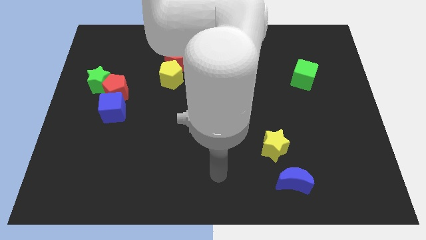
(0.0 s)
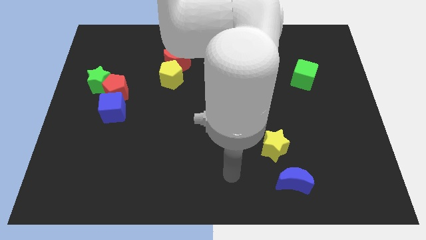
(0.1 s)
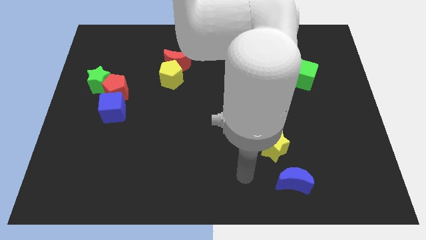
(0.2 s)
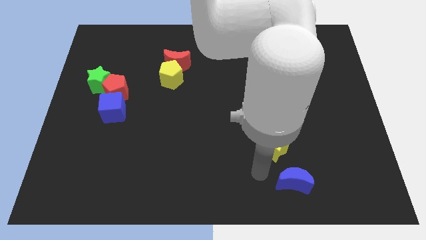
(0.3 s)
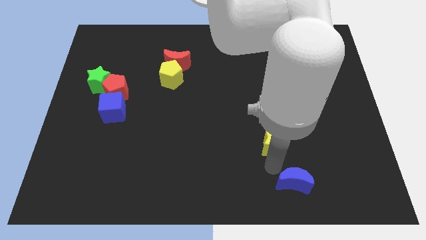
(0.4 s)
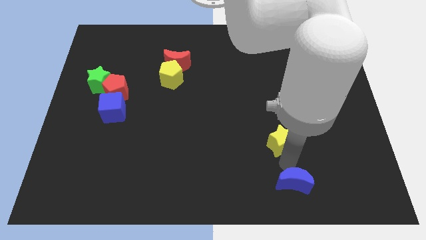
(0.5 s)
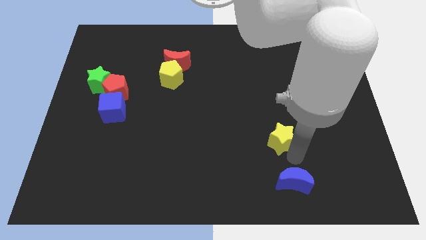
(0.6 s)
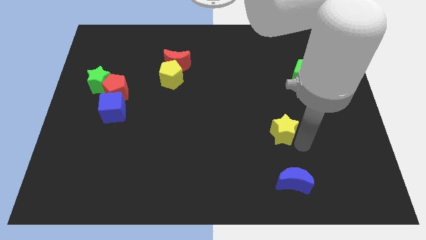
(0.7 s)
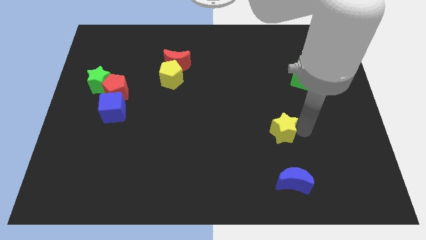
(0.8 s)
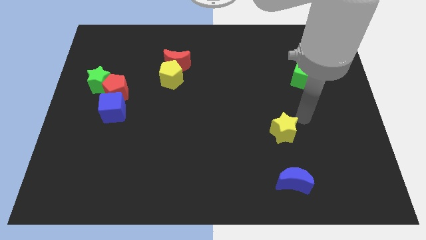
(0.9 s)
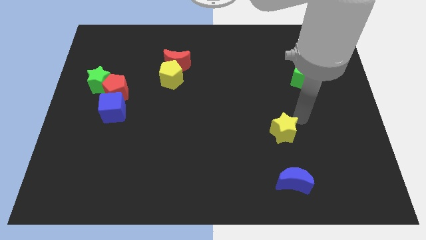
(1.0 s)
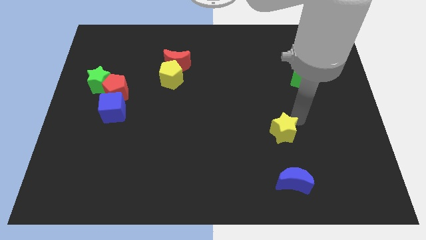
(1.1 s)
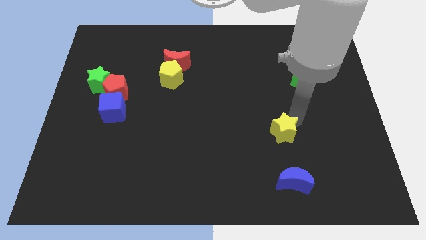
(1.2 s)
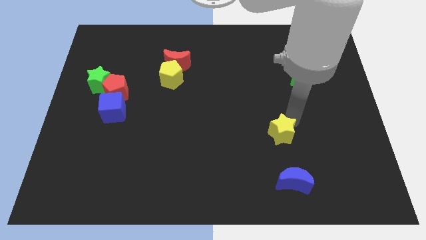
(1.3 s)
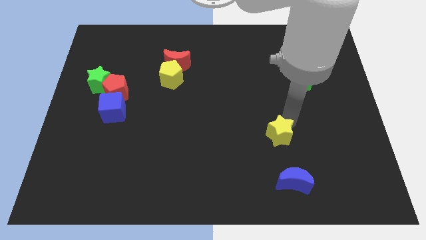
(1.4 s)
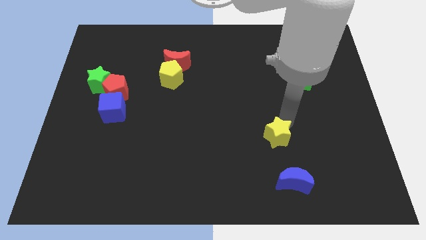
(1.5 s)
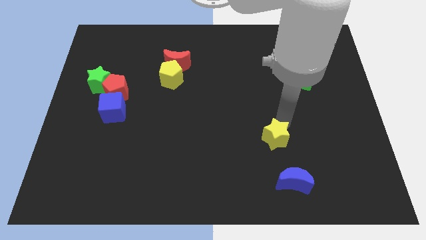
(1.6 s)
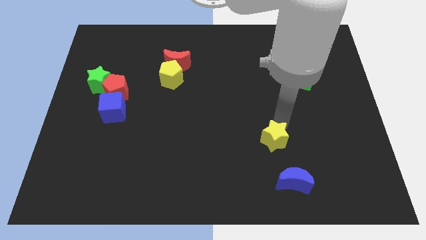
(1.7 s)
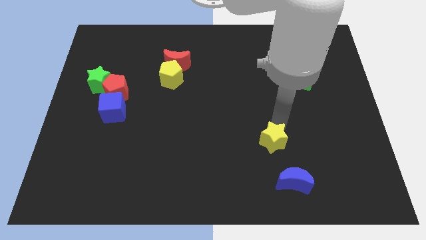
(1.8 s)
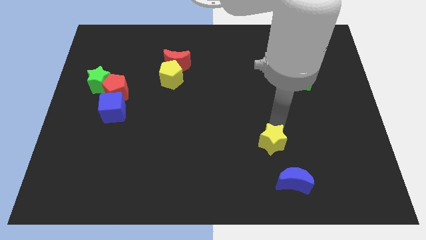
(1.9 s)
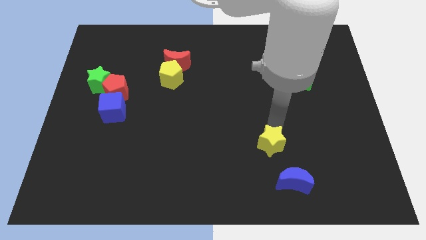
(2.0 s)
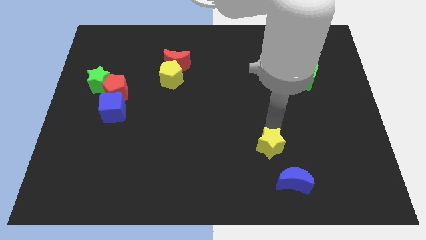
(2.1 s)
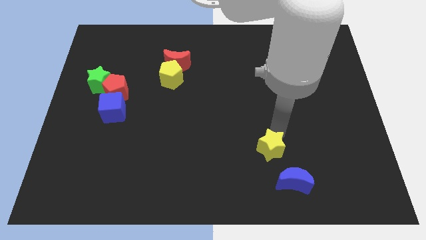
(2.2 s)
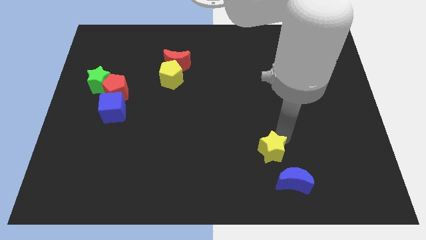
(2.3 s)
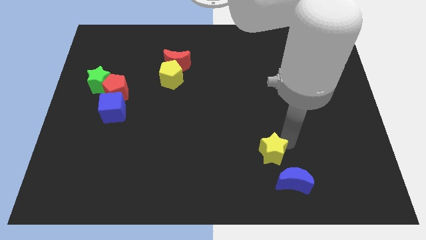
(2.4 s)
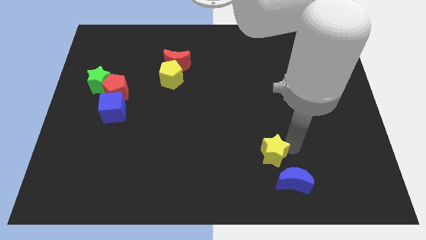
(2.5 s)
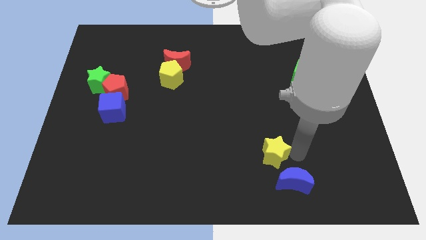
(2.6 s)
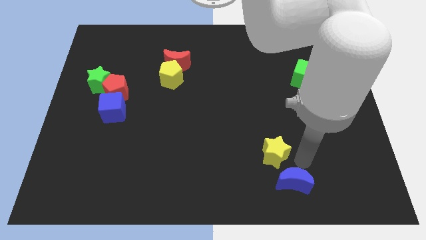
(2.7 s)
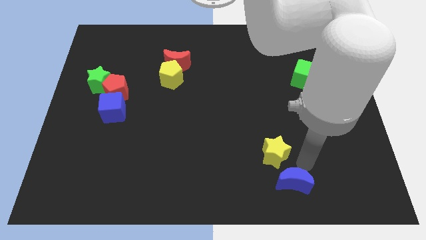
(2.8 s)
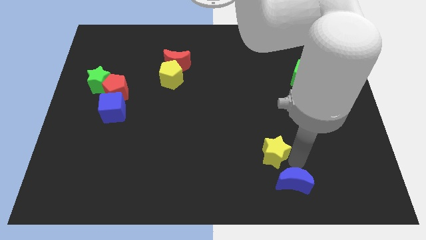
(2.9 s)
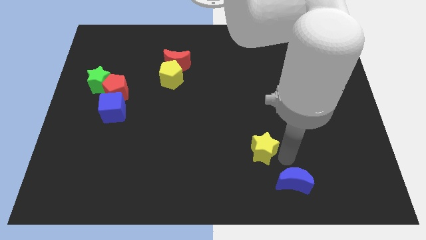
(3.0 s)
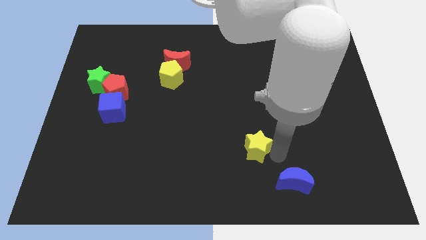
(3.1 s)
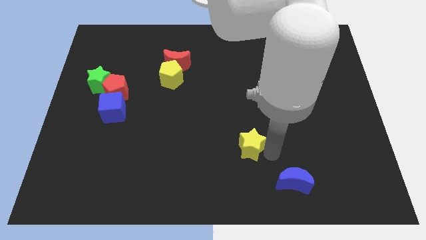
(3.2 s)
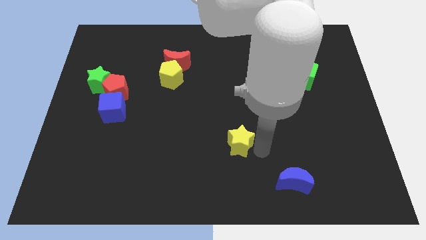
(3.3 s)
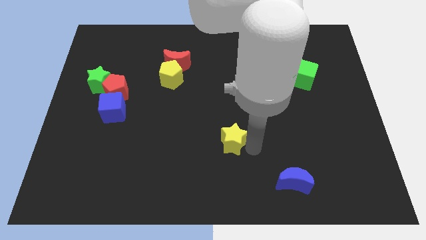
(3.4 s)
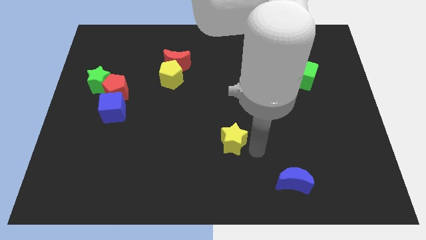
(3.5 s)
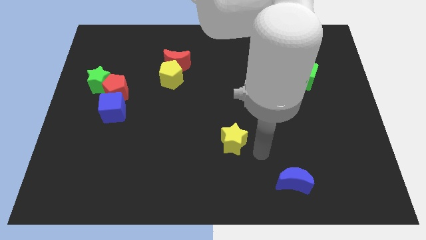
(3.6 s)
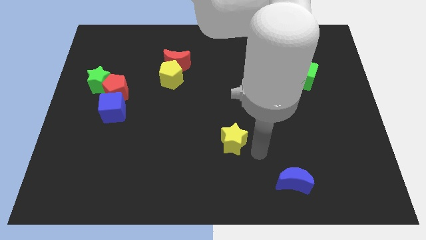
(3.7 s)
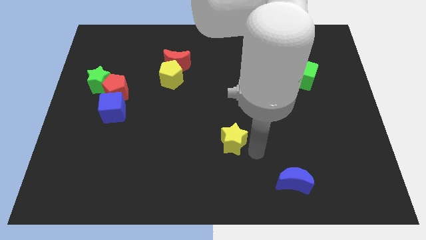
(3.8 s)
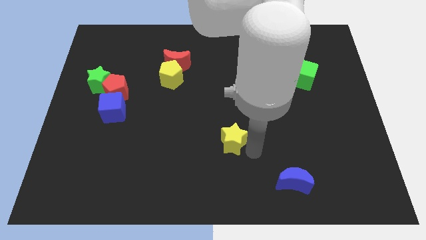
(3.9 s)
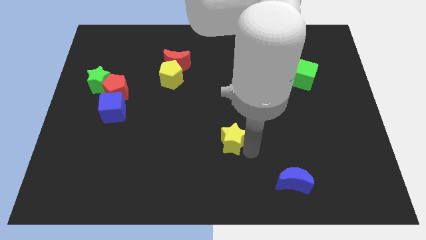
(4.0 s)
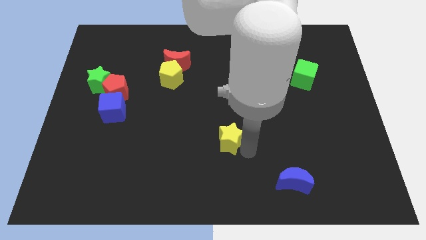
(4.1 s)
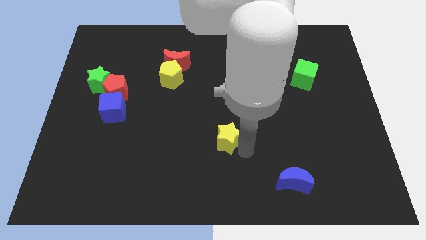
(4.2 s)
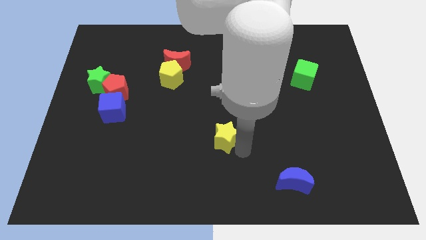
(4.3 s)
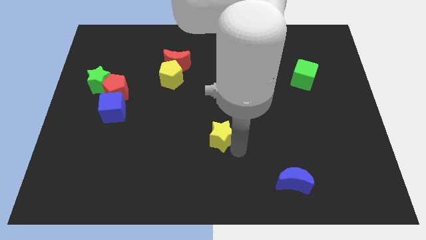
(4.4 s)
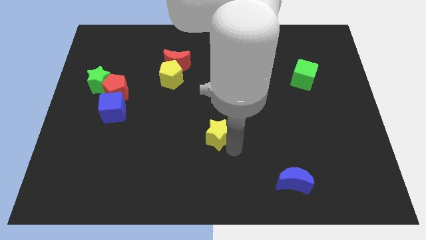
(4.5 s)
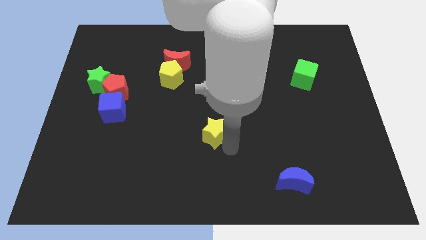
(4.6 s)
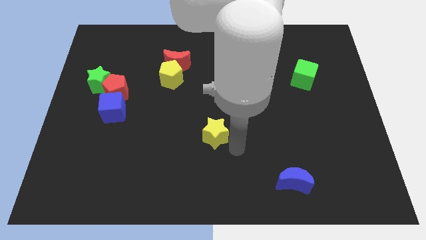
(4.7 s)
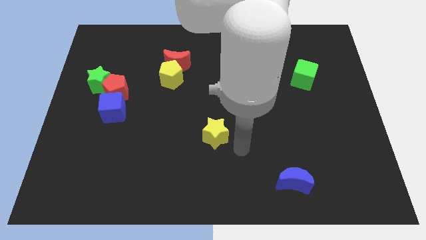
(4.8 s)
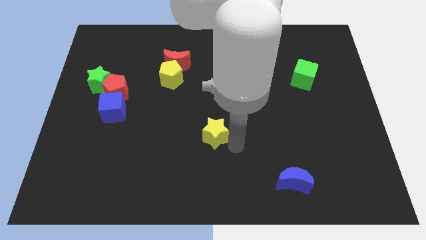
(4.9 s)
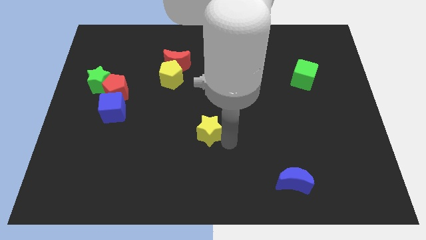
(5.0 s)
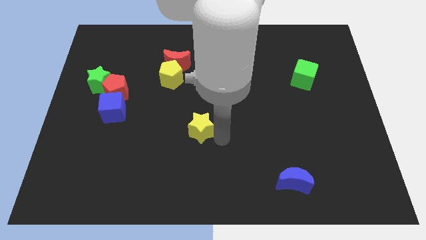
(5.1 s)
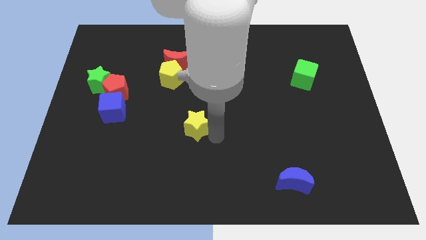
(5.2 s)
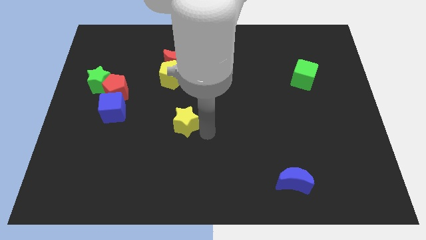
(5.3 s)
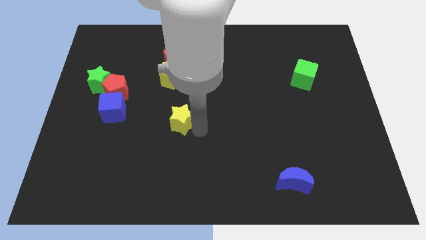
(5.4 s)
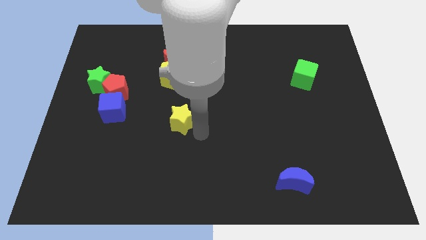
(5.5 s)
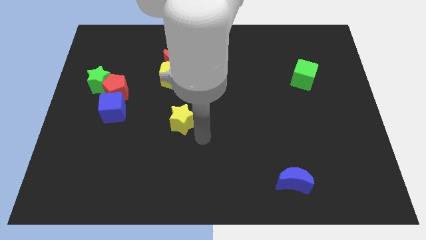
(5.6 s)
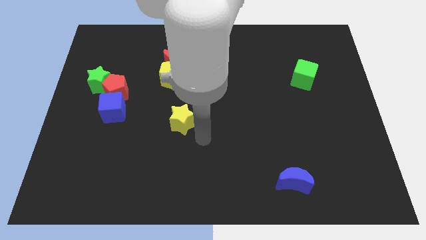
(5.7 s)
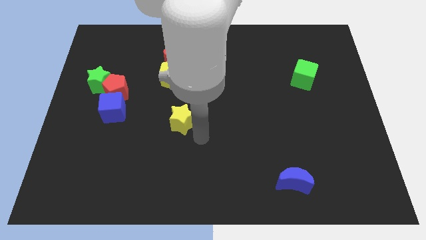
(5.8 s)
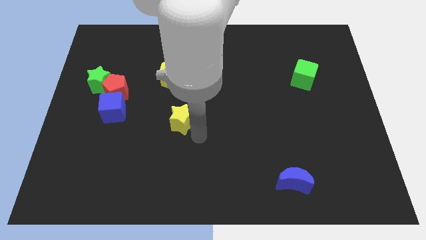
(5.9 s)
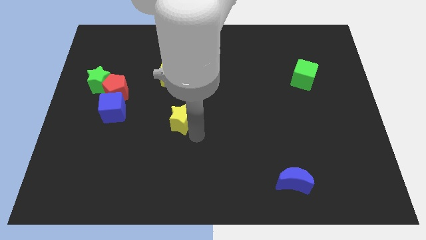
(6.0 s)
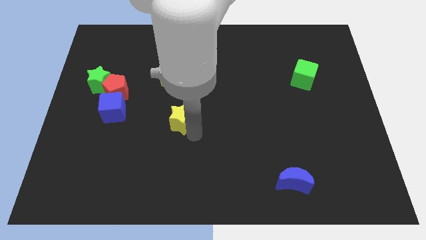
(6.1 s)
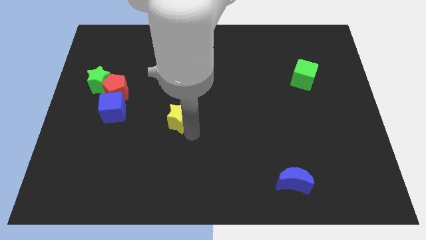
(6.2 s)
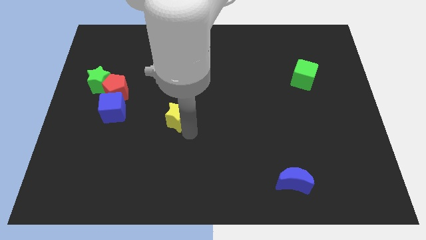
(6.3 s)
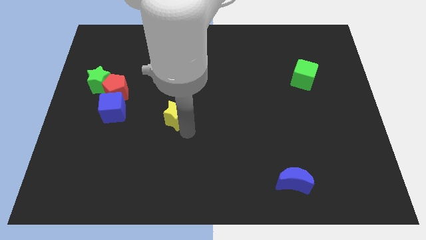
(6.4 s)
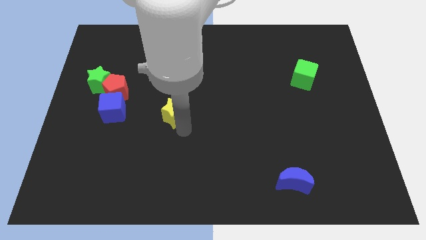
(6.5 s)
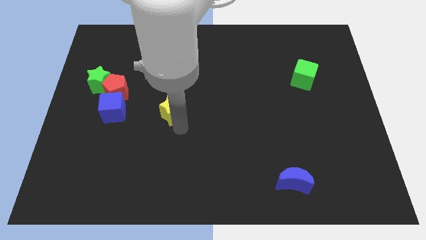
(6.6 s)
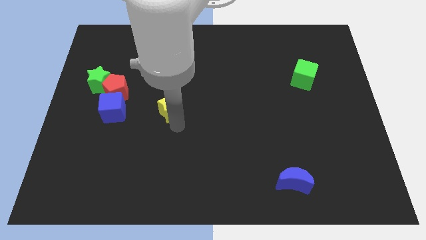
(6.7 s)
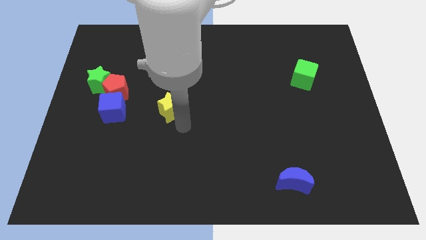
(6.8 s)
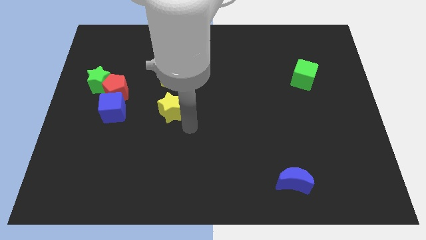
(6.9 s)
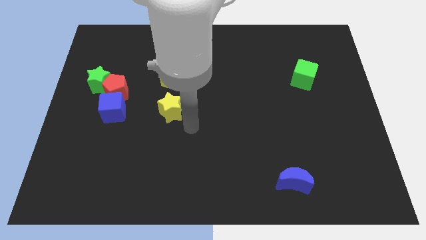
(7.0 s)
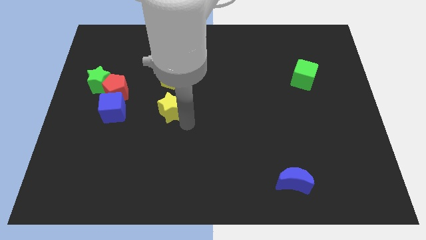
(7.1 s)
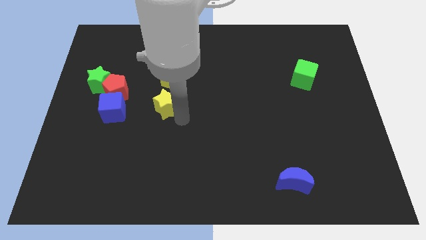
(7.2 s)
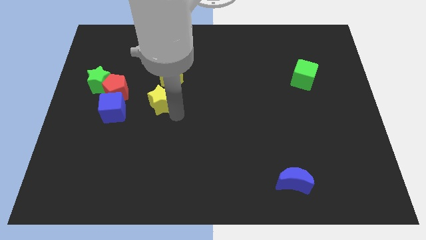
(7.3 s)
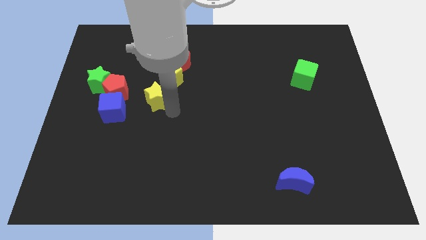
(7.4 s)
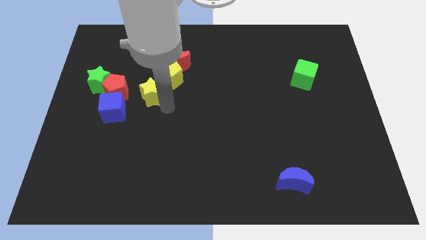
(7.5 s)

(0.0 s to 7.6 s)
slide the yellow star just right of the green star

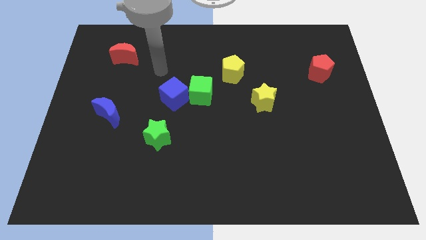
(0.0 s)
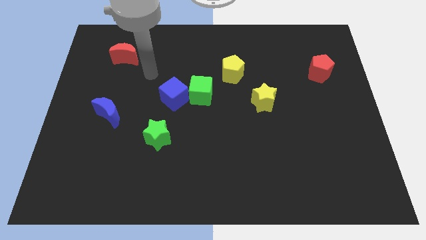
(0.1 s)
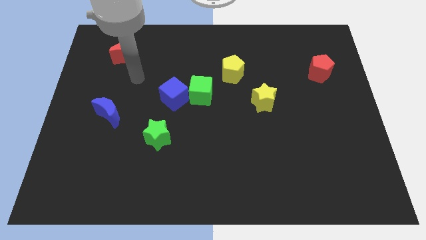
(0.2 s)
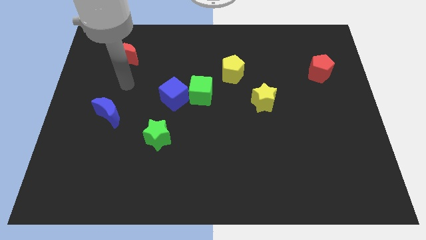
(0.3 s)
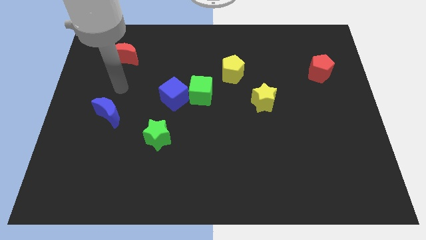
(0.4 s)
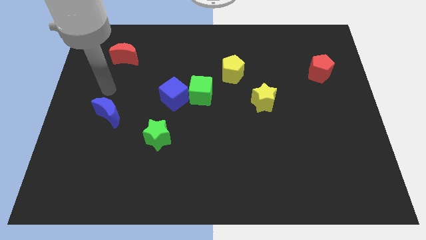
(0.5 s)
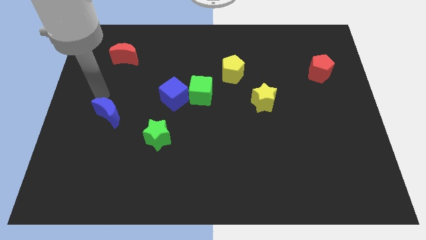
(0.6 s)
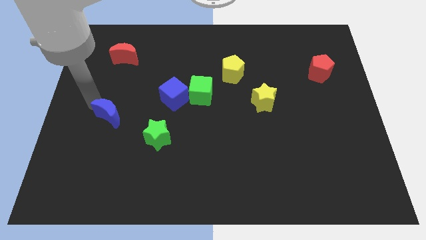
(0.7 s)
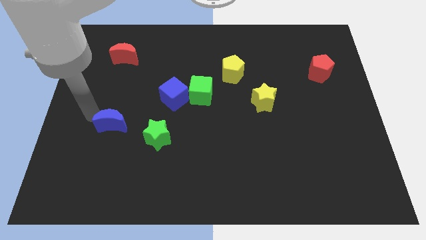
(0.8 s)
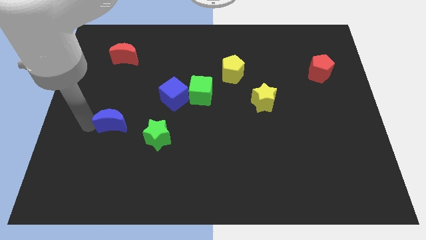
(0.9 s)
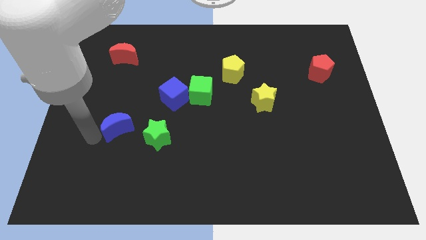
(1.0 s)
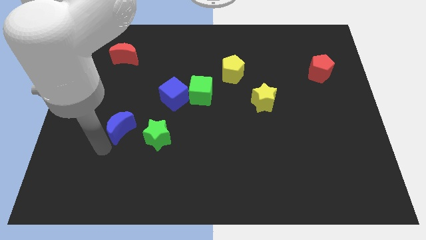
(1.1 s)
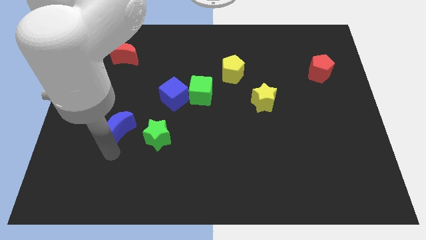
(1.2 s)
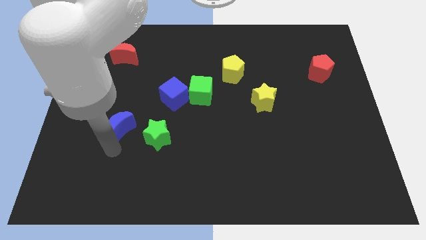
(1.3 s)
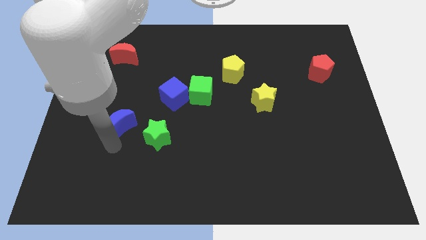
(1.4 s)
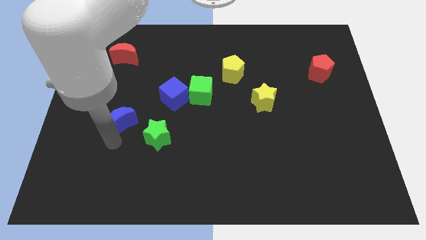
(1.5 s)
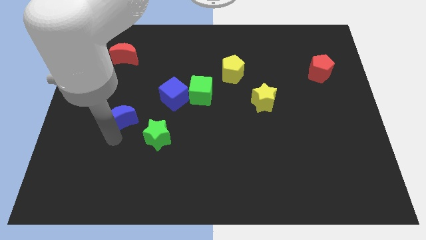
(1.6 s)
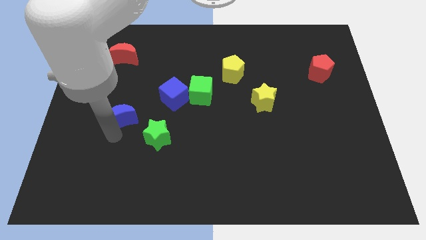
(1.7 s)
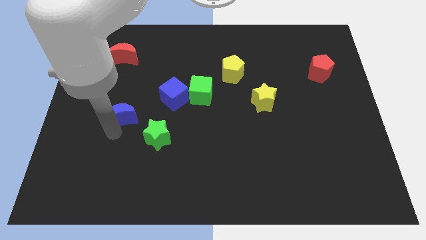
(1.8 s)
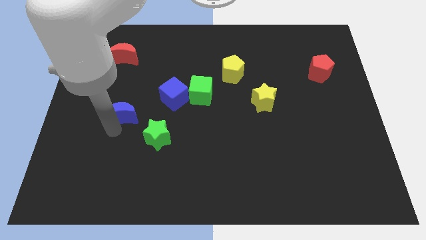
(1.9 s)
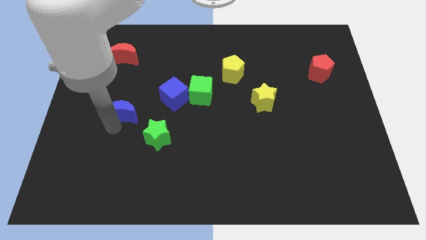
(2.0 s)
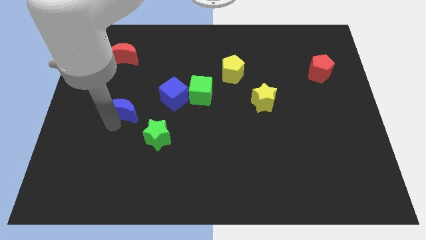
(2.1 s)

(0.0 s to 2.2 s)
push the blue moon just left of the blue cube
